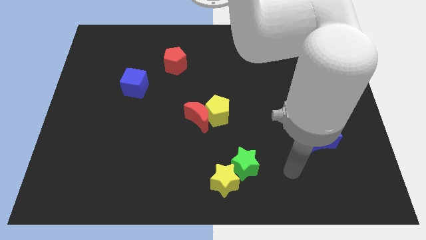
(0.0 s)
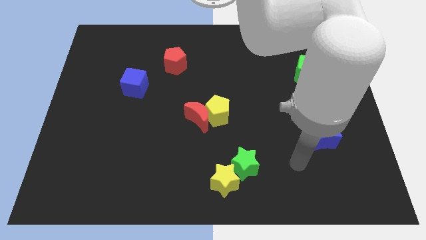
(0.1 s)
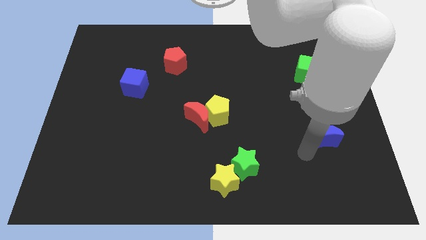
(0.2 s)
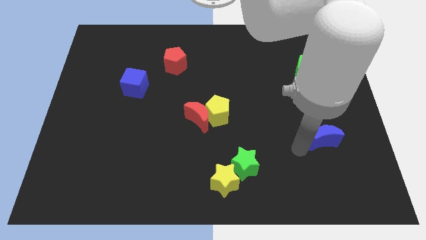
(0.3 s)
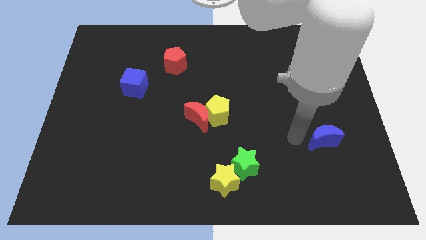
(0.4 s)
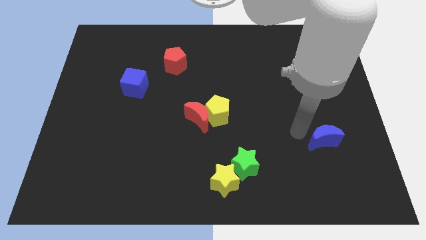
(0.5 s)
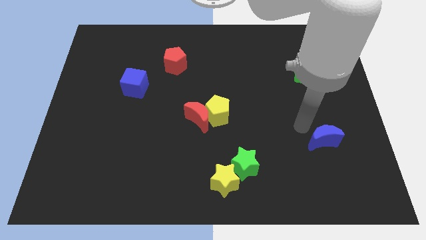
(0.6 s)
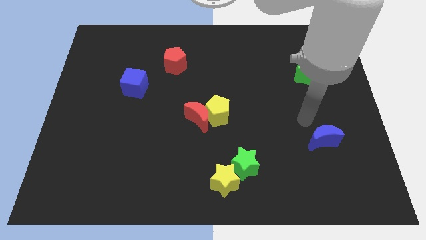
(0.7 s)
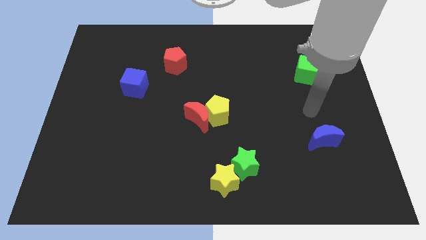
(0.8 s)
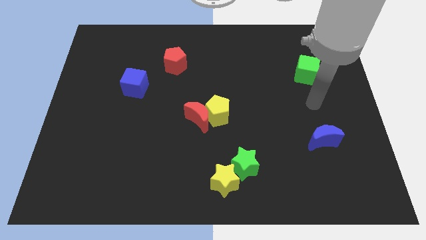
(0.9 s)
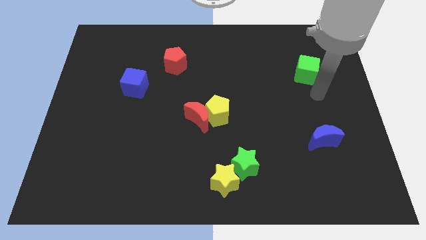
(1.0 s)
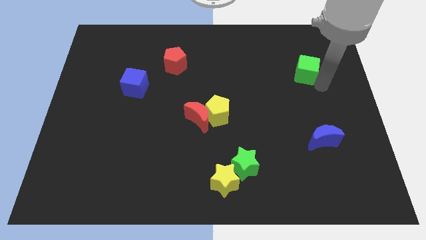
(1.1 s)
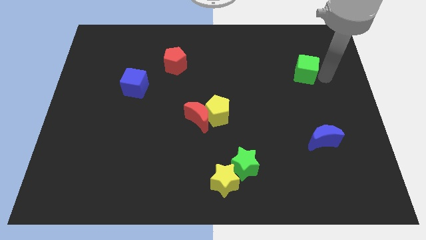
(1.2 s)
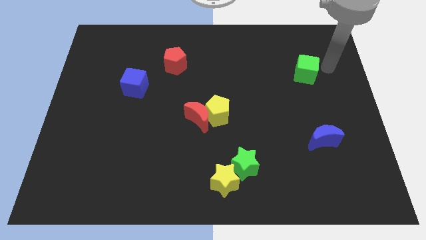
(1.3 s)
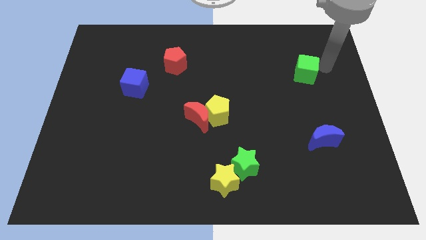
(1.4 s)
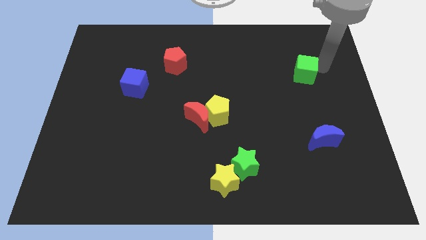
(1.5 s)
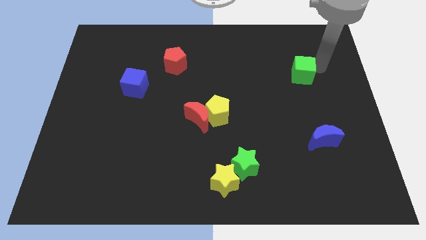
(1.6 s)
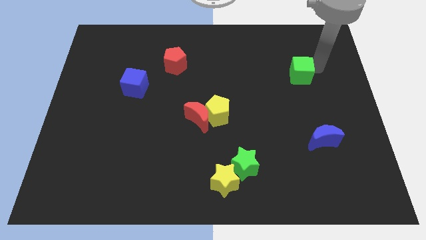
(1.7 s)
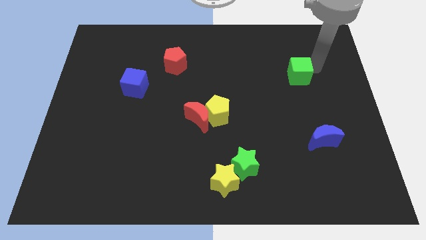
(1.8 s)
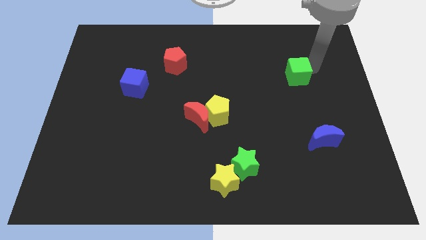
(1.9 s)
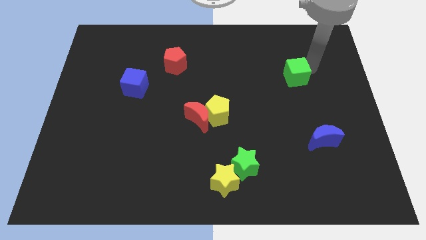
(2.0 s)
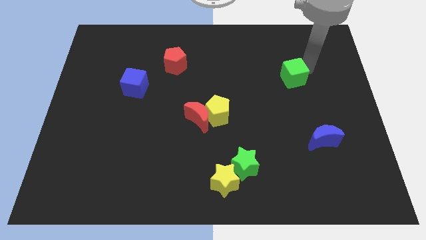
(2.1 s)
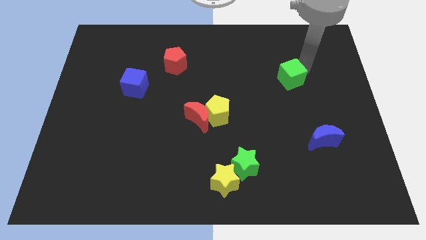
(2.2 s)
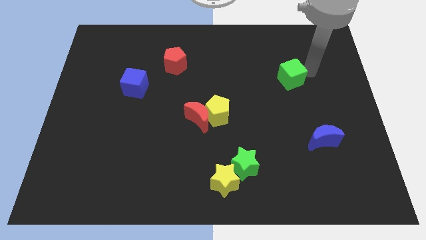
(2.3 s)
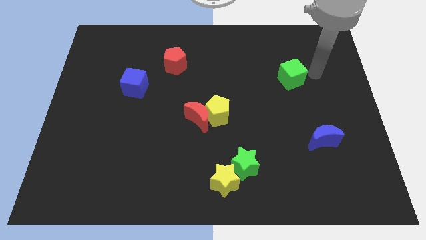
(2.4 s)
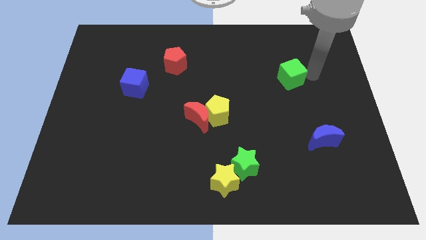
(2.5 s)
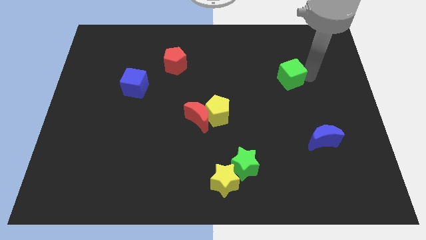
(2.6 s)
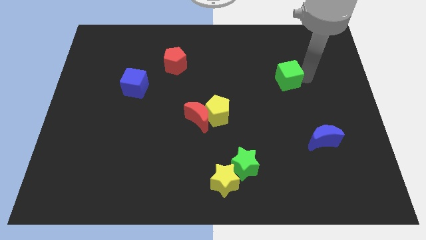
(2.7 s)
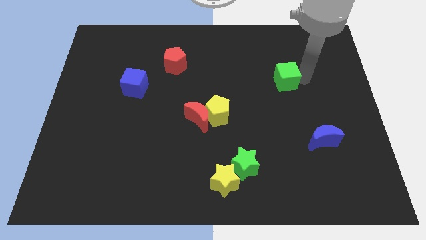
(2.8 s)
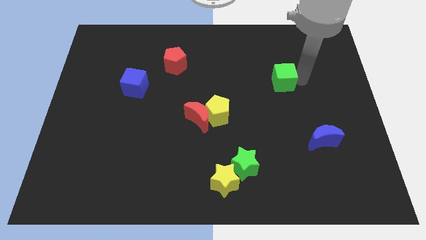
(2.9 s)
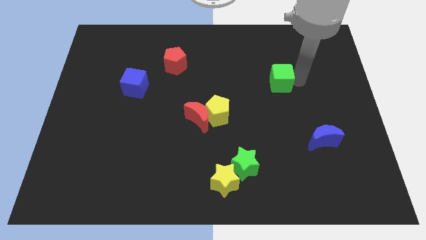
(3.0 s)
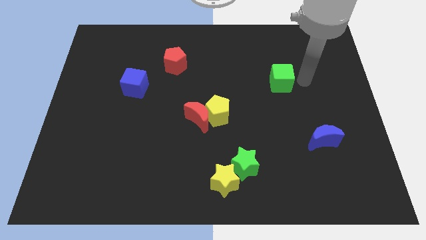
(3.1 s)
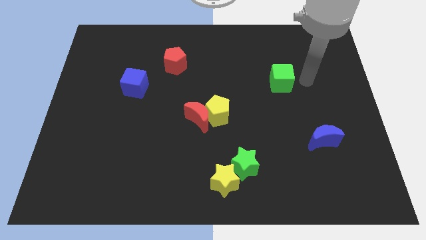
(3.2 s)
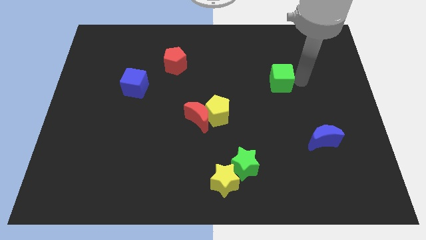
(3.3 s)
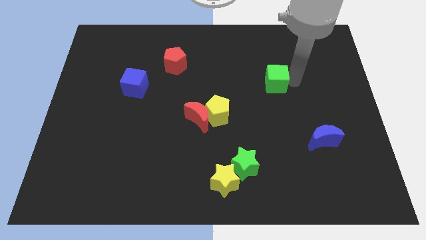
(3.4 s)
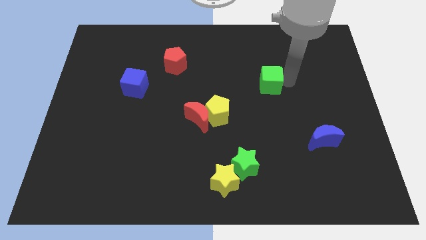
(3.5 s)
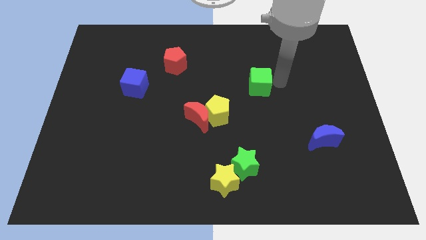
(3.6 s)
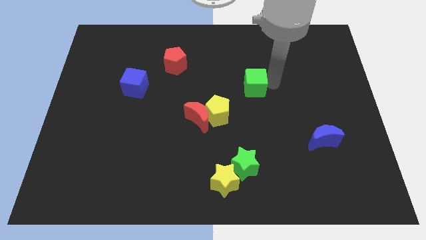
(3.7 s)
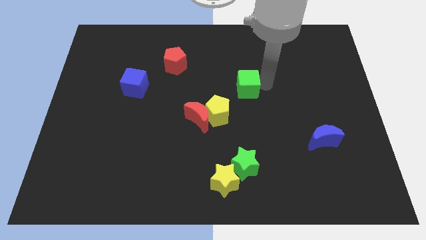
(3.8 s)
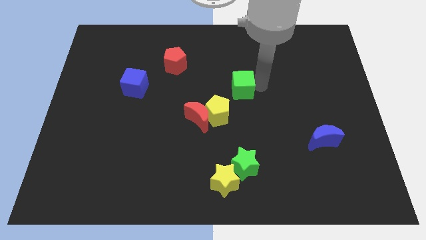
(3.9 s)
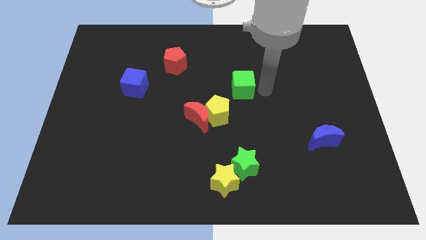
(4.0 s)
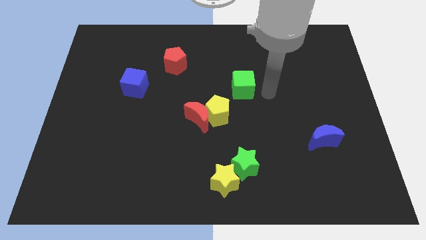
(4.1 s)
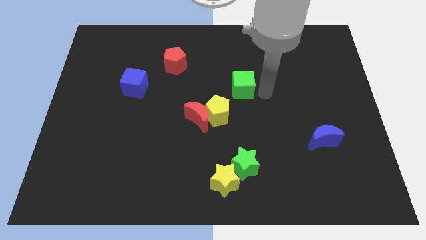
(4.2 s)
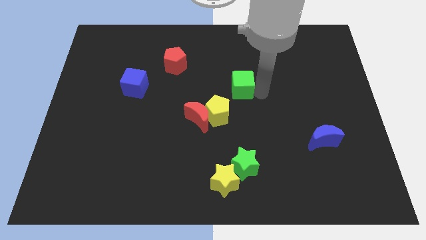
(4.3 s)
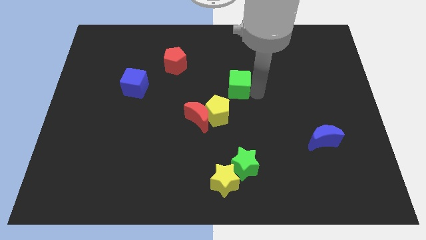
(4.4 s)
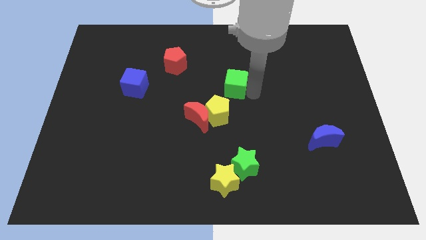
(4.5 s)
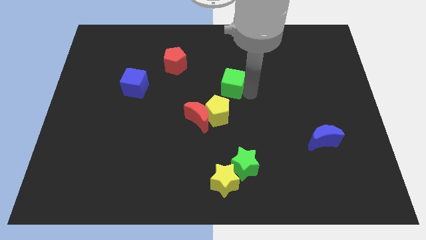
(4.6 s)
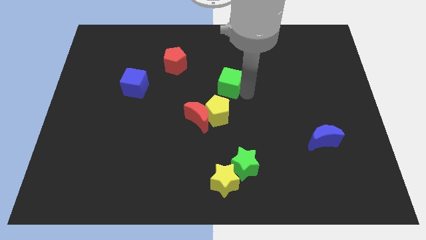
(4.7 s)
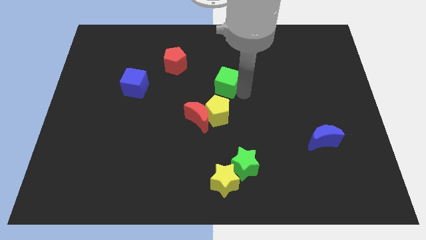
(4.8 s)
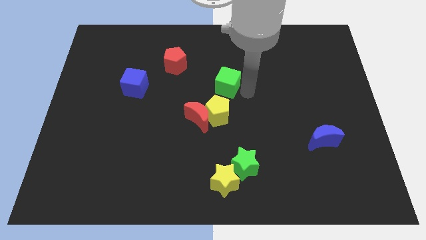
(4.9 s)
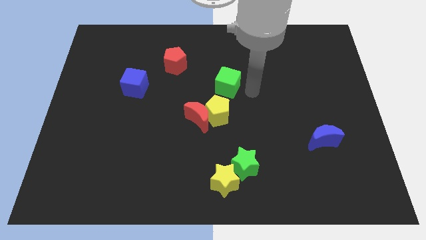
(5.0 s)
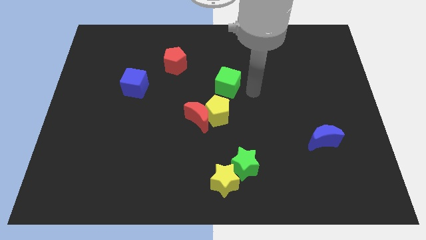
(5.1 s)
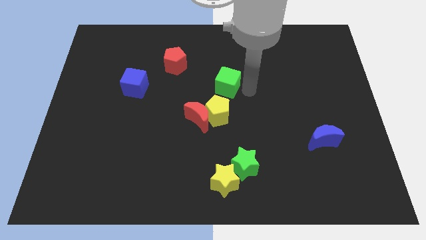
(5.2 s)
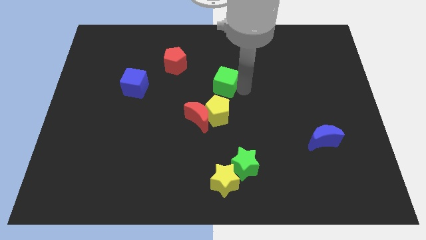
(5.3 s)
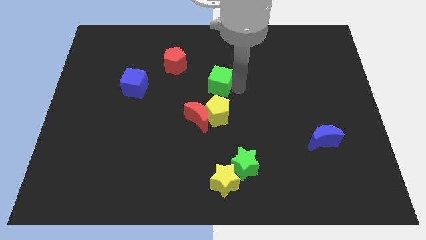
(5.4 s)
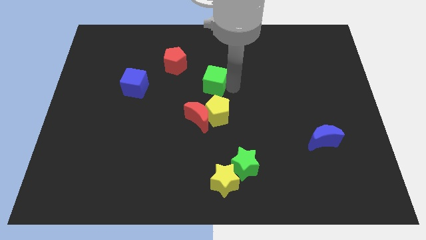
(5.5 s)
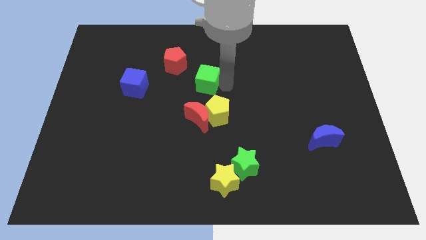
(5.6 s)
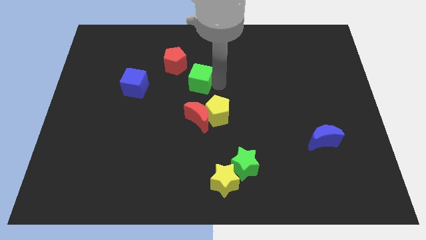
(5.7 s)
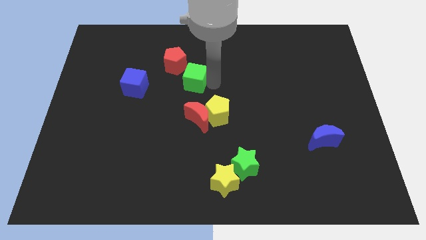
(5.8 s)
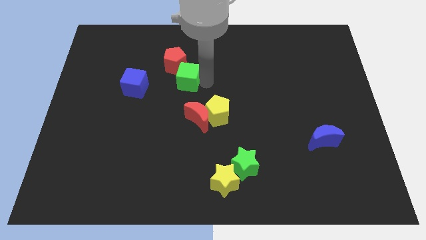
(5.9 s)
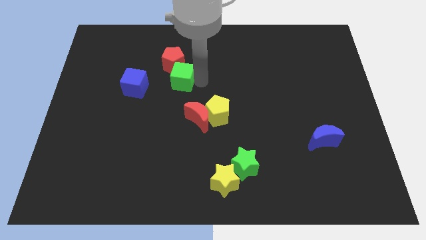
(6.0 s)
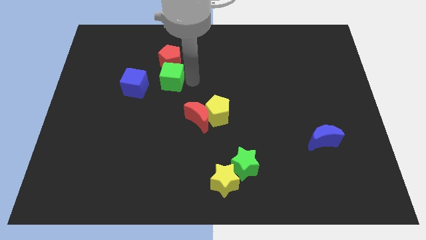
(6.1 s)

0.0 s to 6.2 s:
push the green cube diagonally down and to the left of the red pentagon

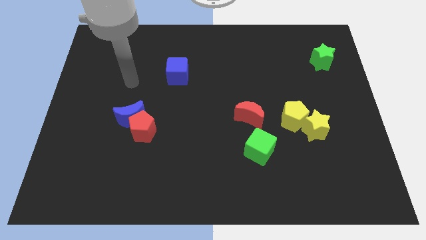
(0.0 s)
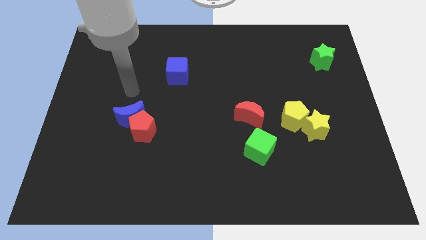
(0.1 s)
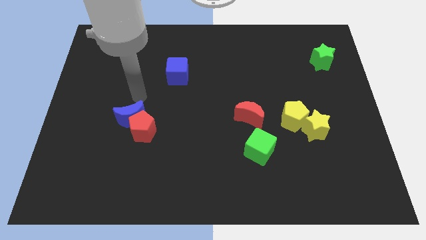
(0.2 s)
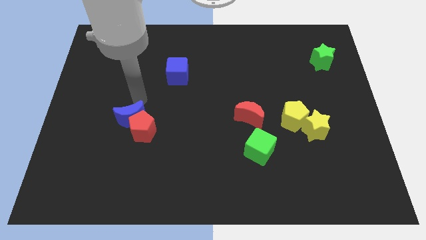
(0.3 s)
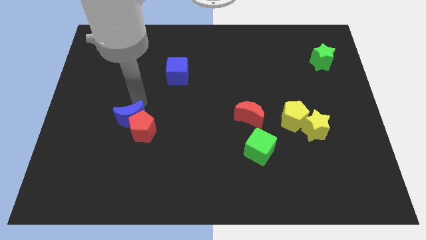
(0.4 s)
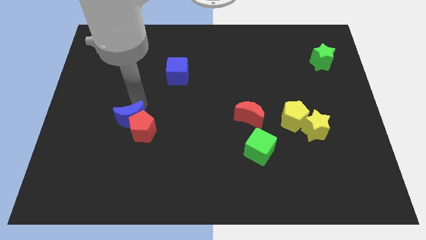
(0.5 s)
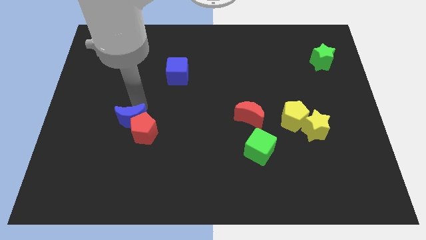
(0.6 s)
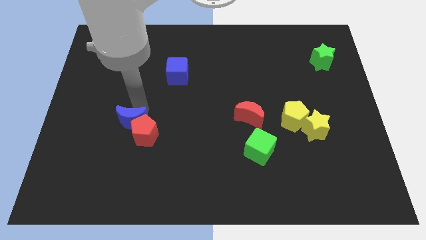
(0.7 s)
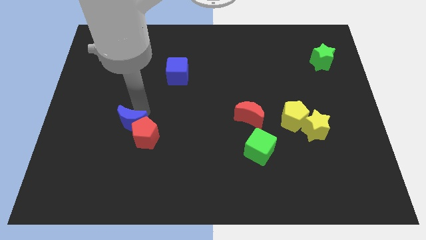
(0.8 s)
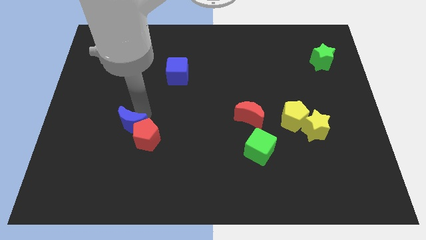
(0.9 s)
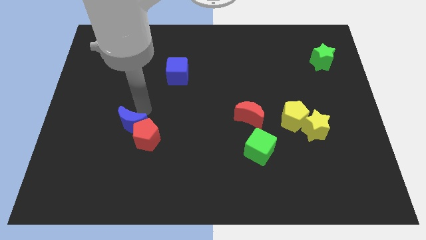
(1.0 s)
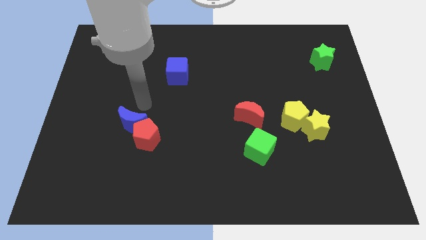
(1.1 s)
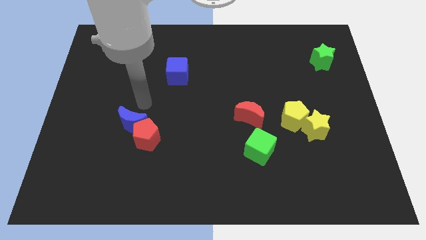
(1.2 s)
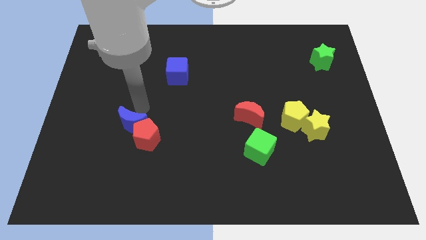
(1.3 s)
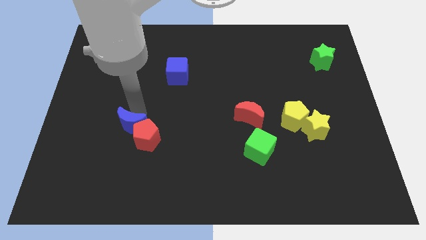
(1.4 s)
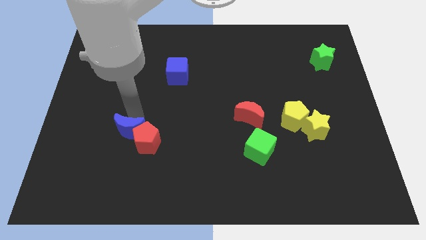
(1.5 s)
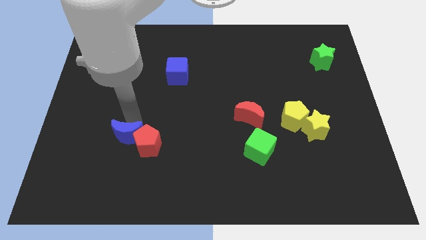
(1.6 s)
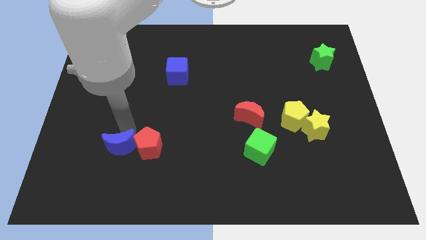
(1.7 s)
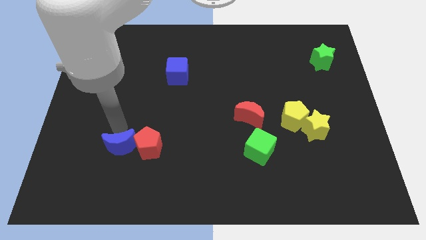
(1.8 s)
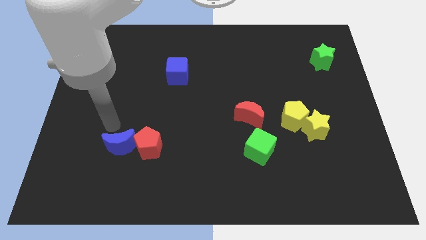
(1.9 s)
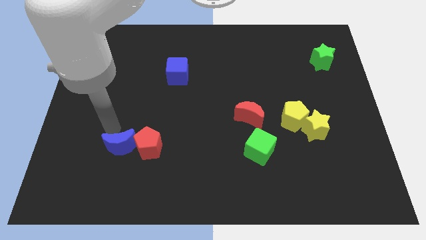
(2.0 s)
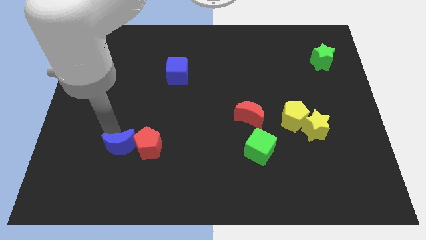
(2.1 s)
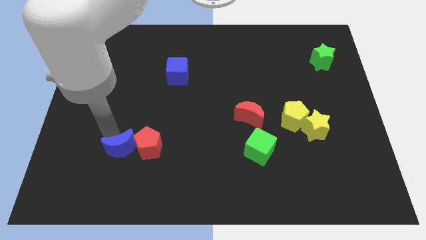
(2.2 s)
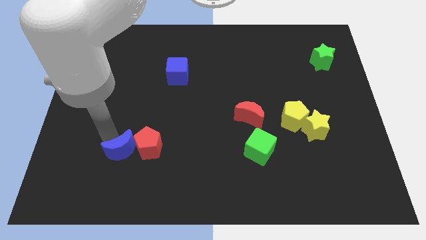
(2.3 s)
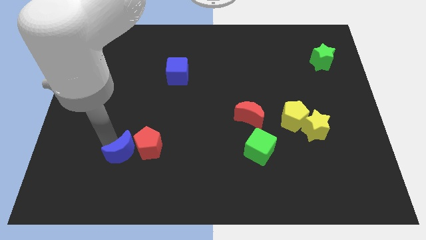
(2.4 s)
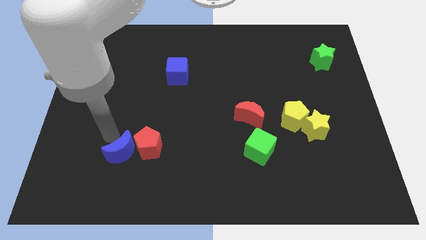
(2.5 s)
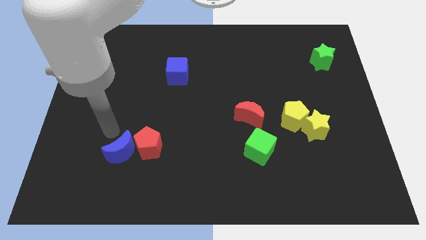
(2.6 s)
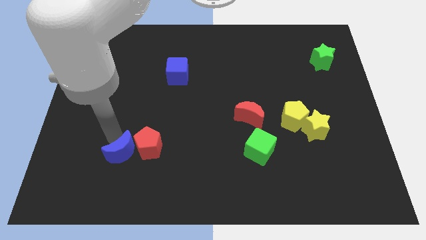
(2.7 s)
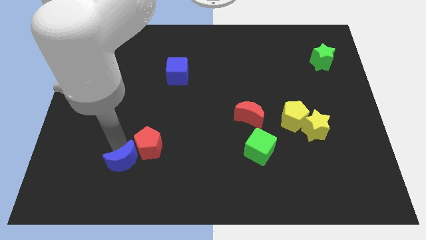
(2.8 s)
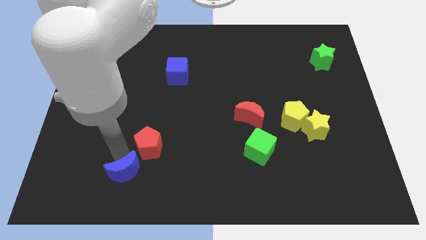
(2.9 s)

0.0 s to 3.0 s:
move the blue moon to the bottom side of the red pentagon
